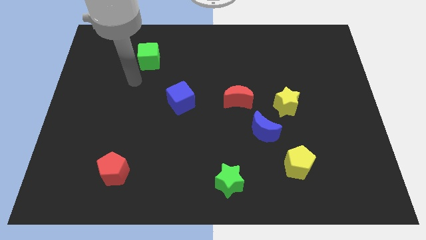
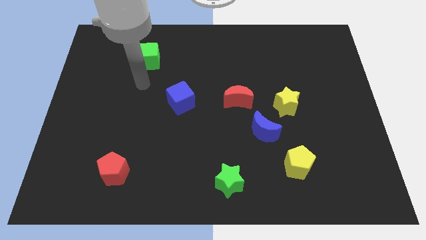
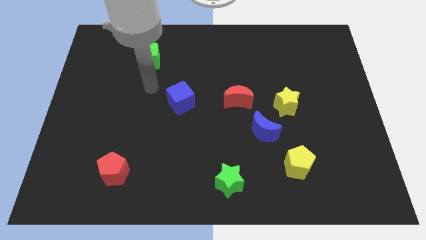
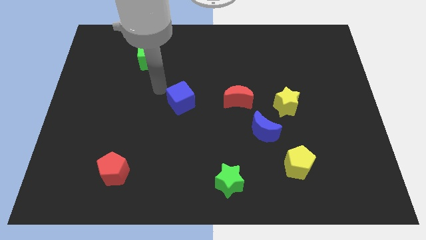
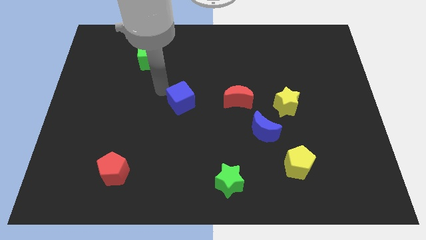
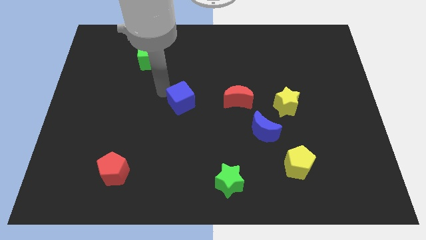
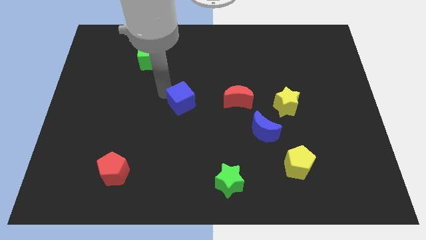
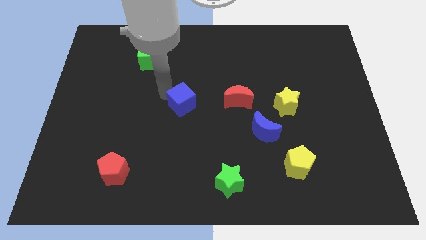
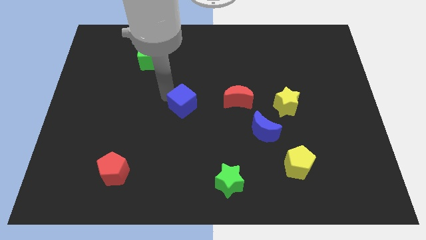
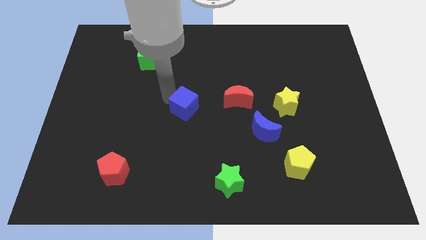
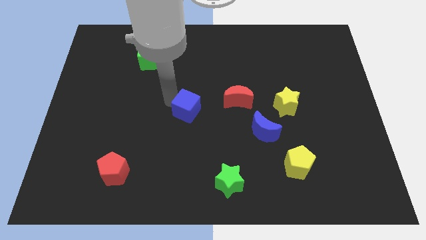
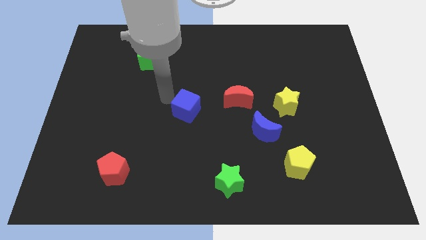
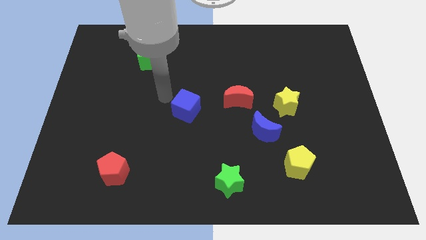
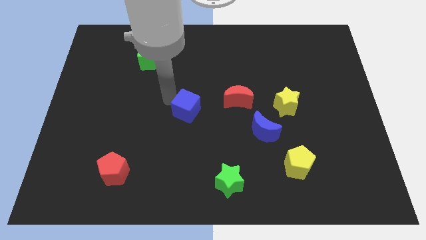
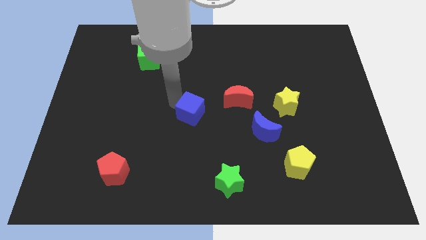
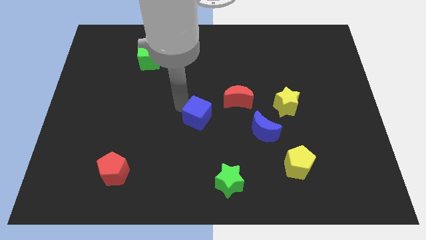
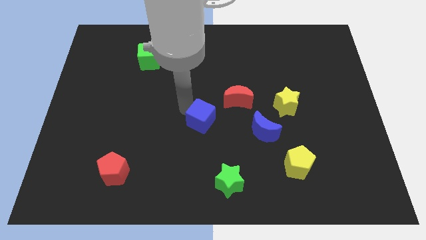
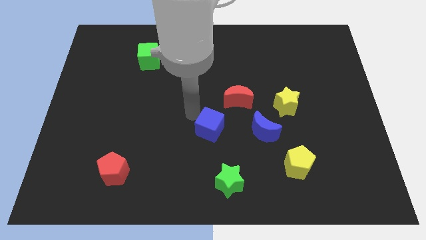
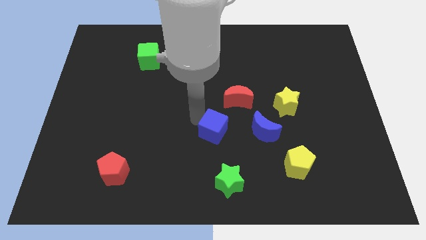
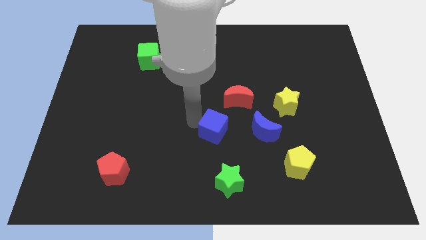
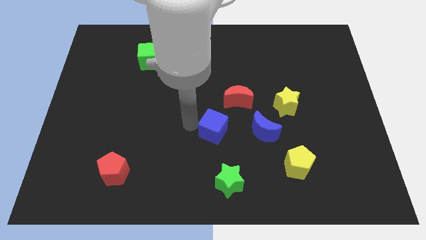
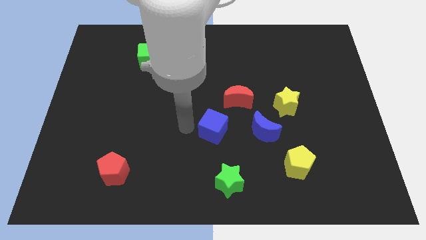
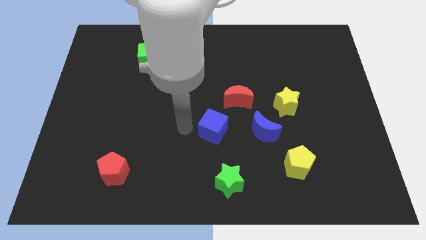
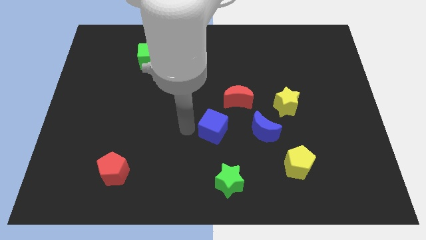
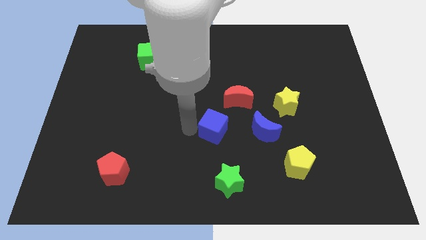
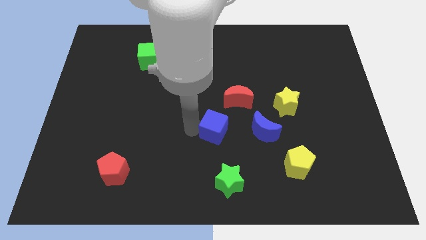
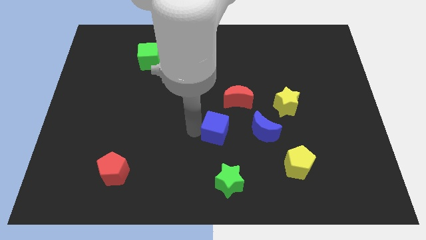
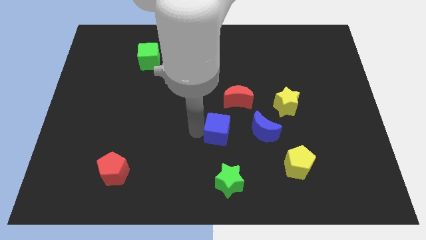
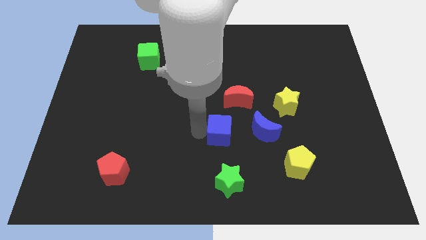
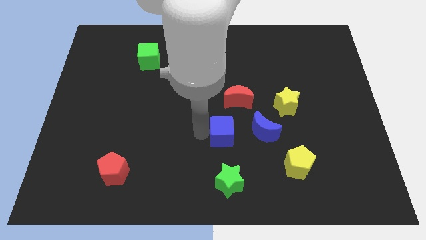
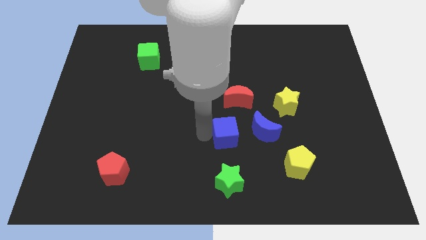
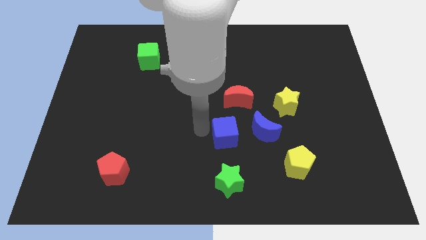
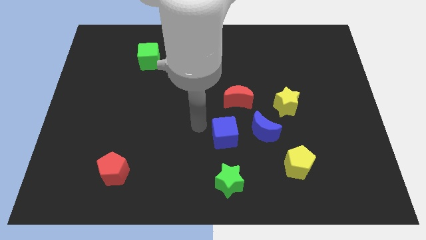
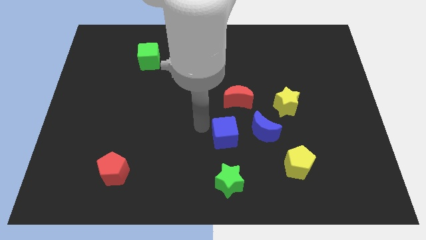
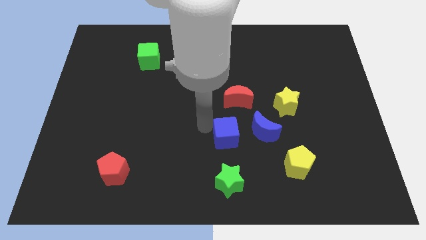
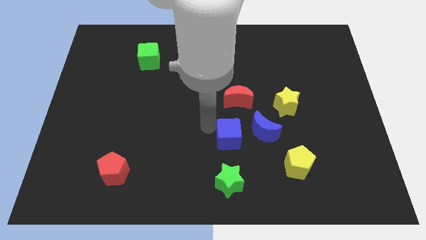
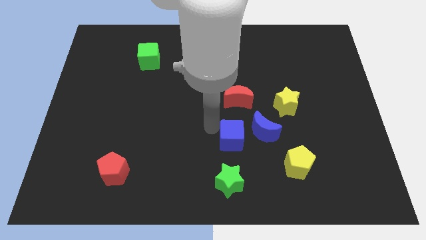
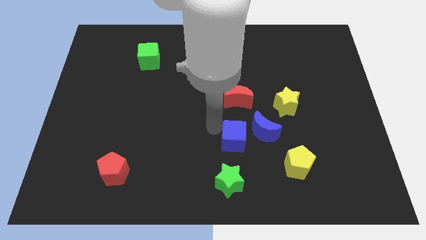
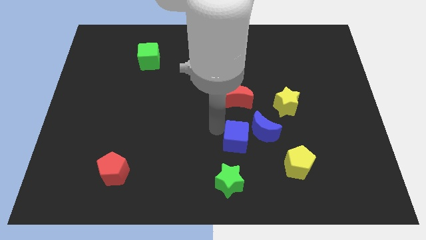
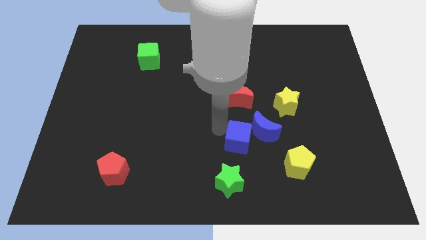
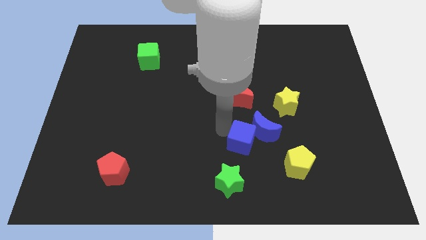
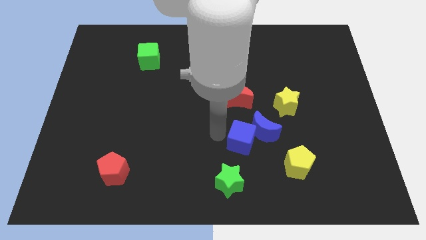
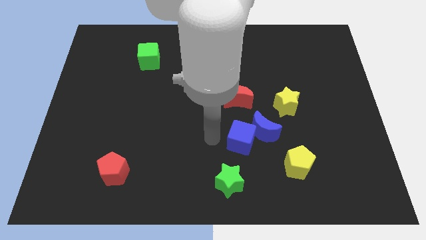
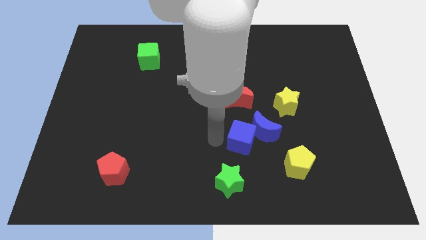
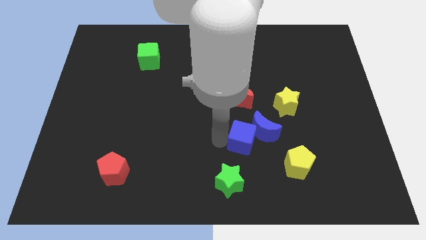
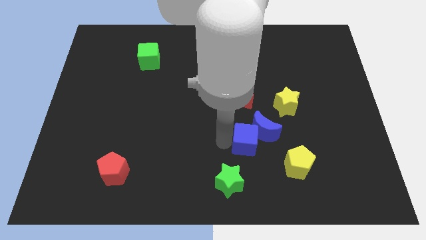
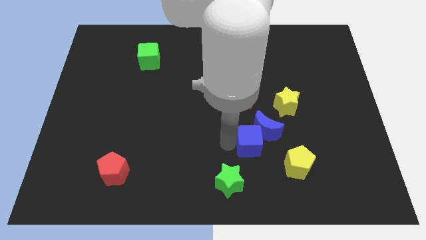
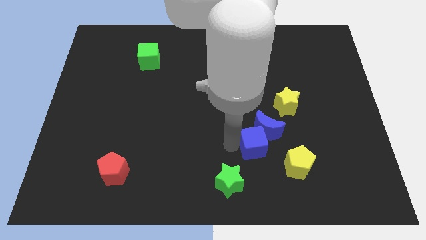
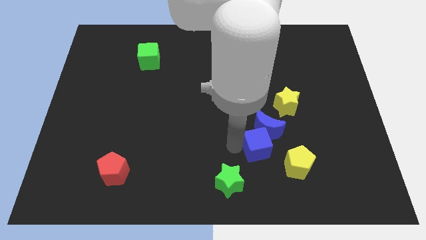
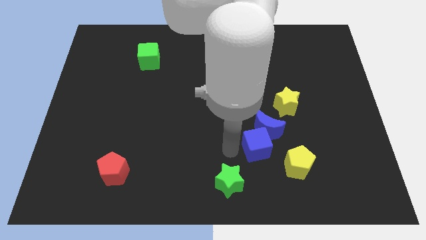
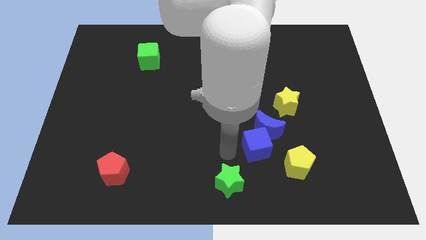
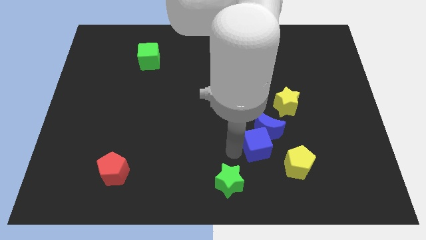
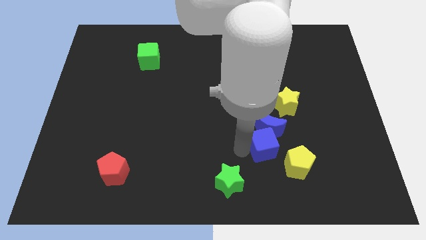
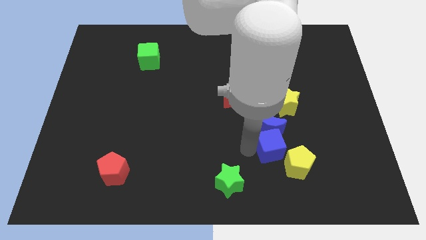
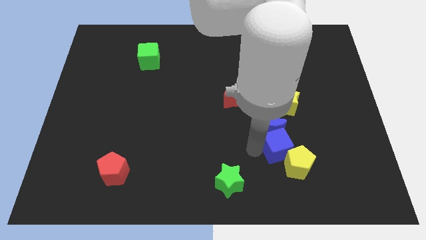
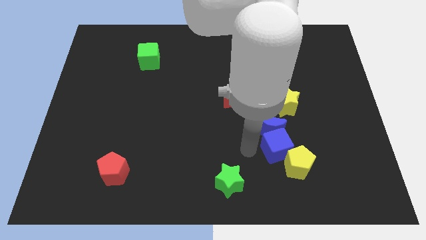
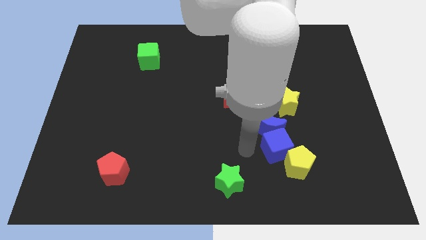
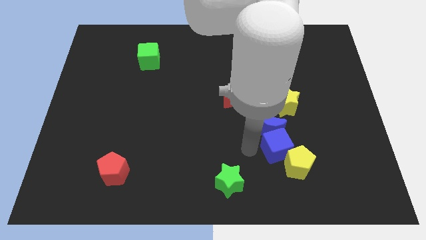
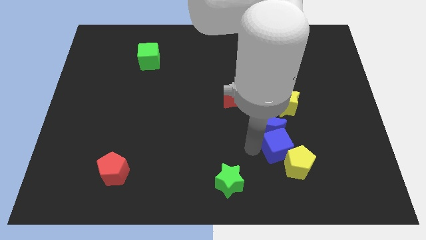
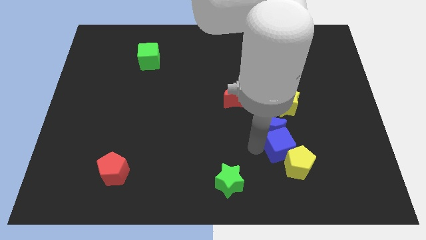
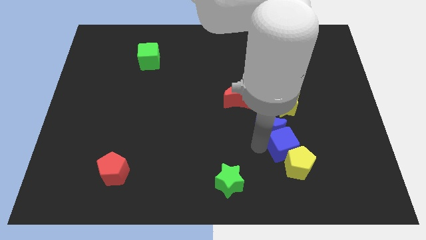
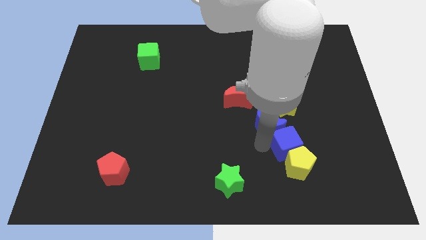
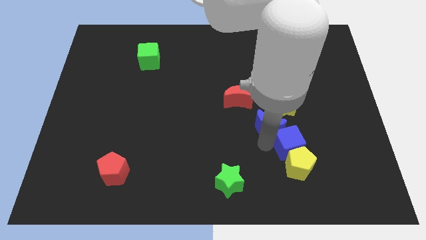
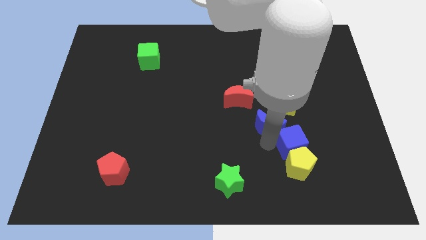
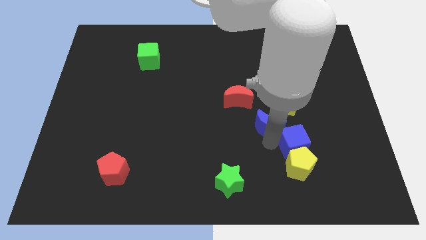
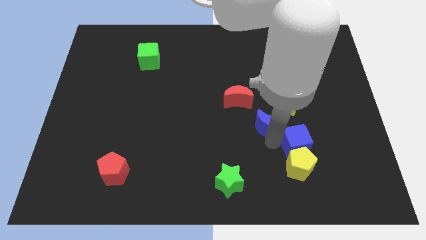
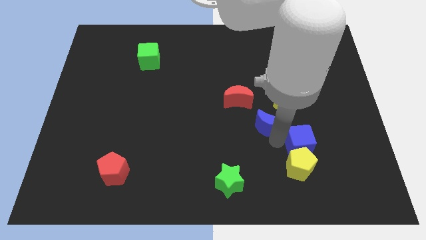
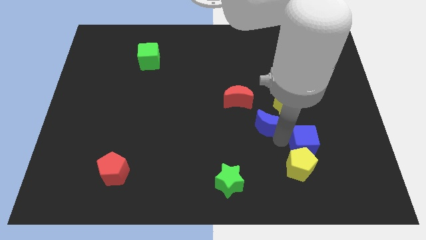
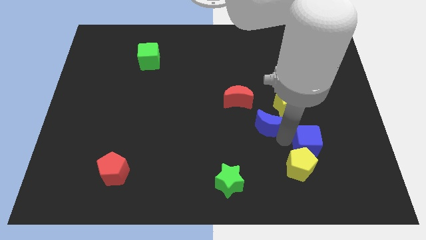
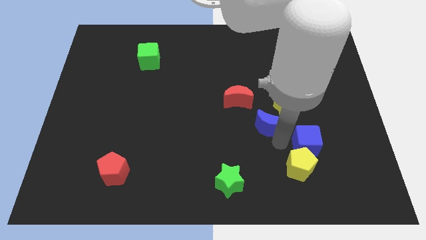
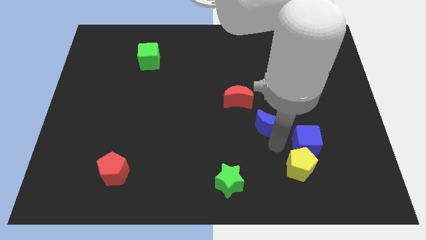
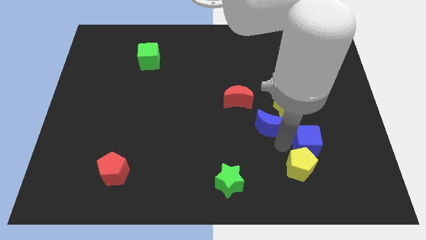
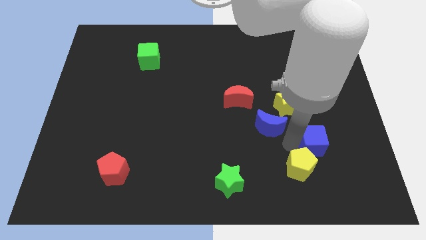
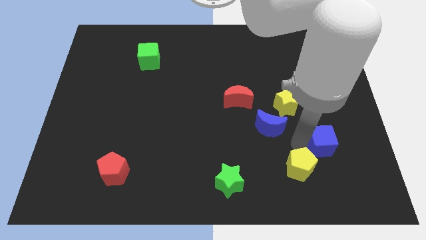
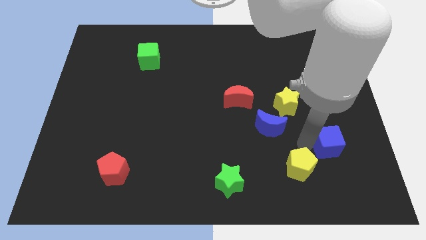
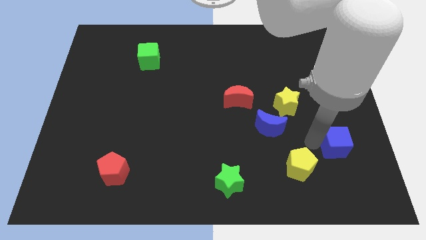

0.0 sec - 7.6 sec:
push the blue cube just right of the yellow pentagon

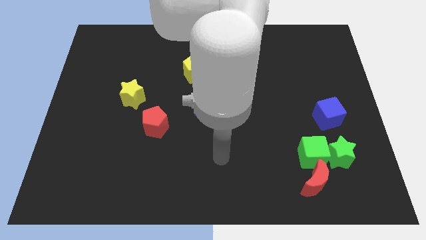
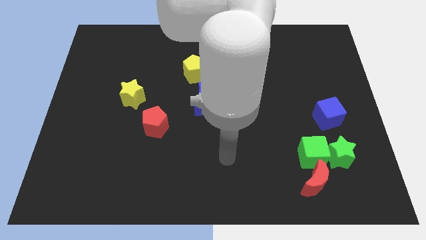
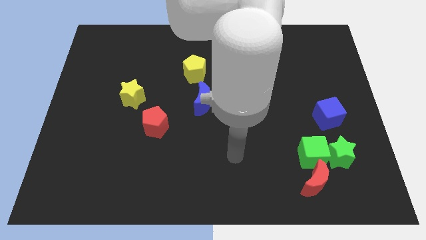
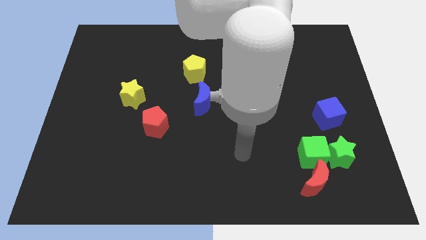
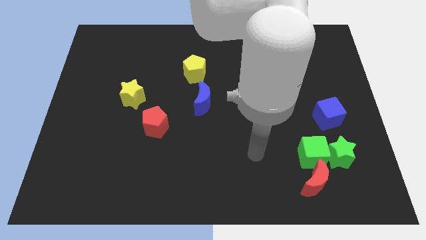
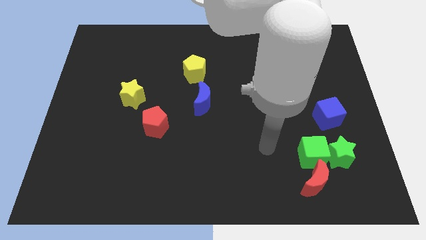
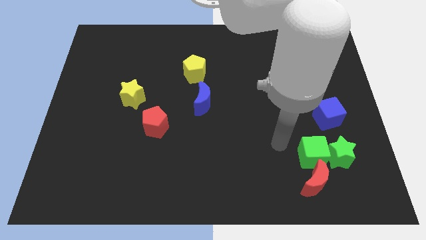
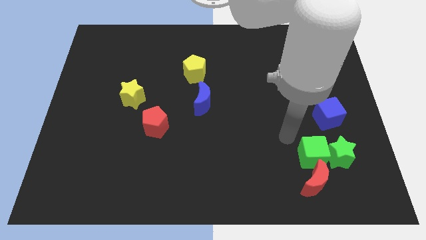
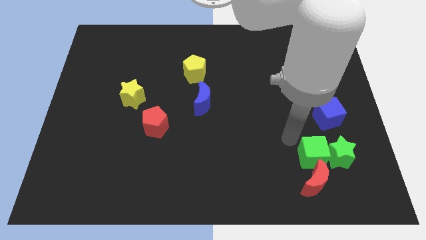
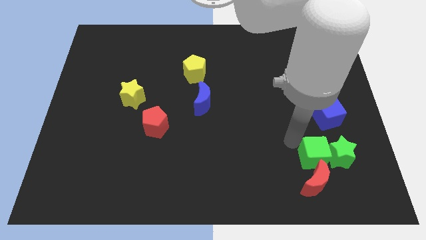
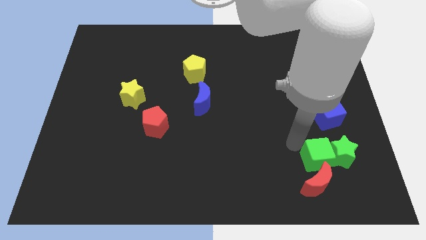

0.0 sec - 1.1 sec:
slide the green cube to the bottom of the blue cube
